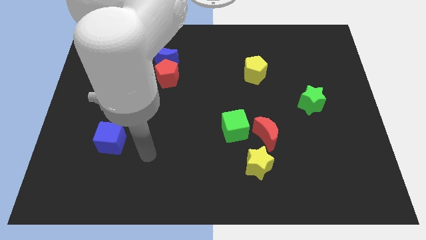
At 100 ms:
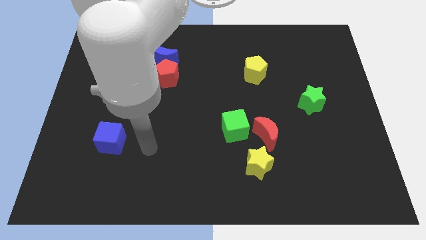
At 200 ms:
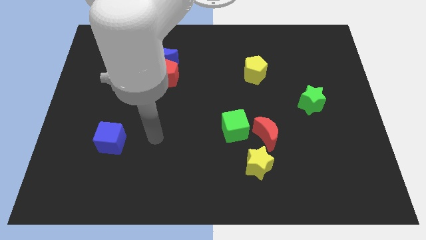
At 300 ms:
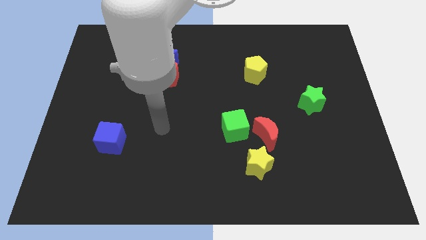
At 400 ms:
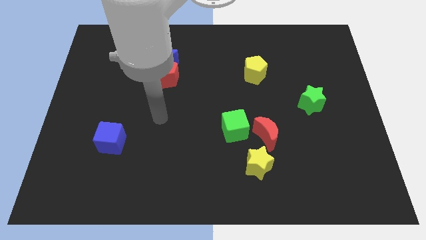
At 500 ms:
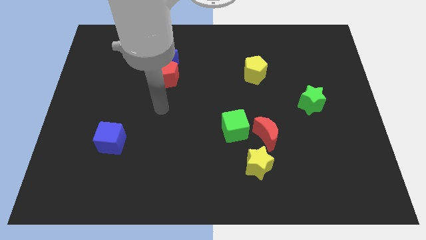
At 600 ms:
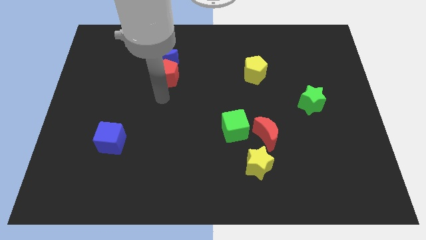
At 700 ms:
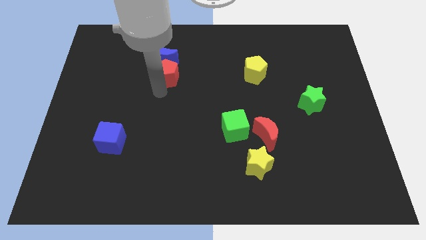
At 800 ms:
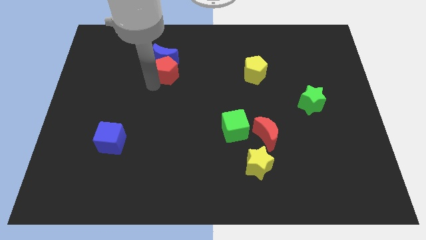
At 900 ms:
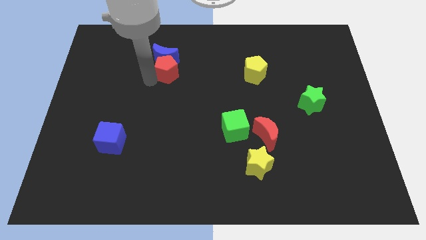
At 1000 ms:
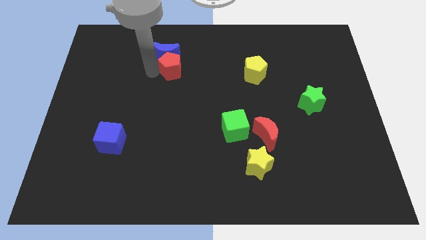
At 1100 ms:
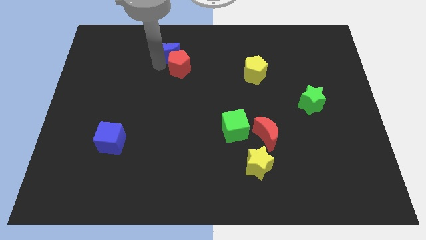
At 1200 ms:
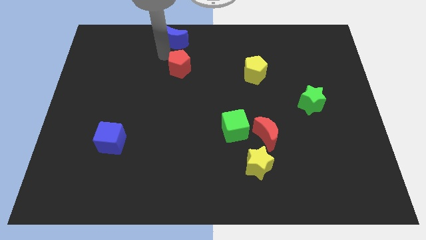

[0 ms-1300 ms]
separate the red pentagon from the blue moon

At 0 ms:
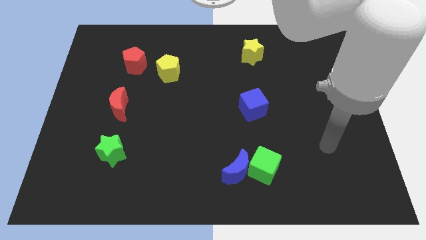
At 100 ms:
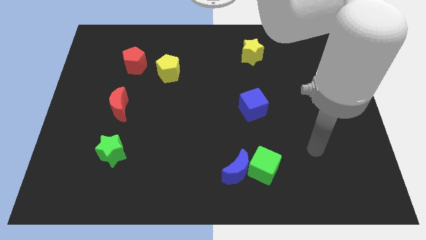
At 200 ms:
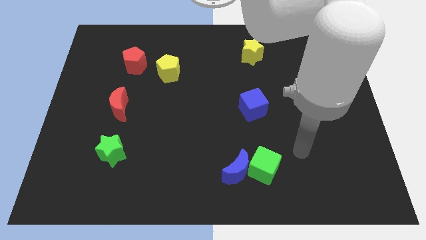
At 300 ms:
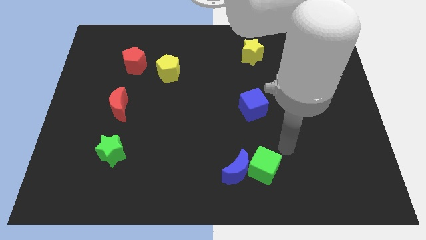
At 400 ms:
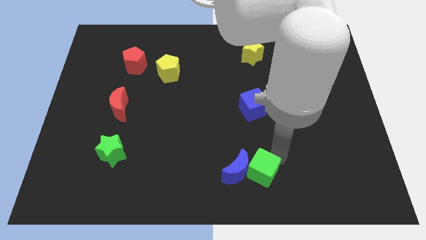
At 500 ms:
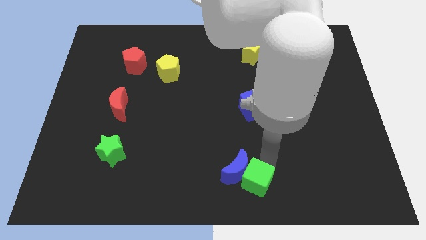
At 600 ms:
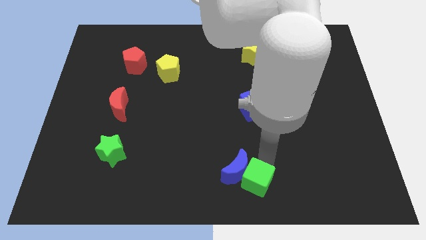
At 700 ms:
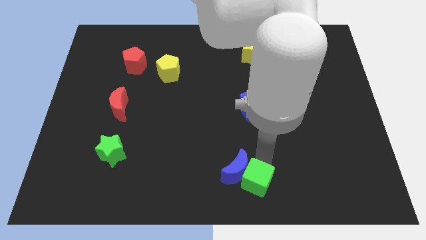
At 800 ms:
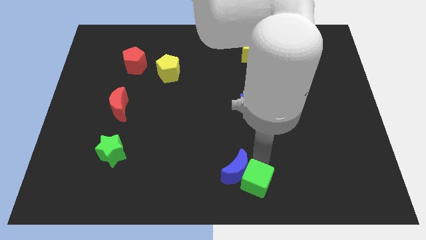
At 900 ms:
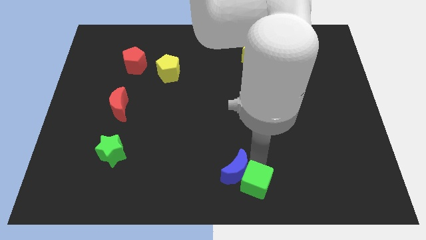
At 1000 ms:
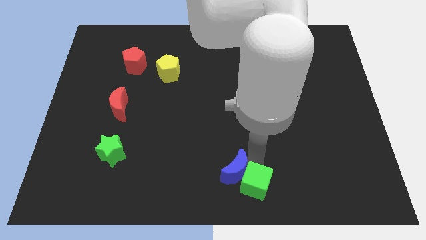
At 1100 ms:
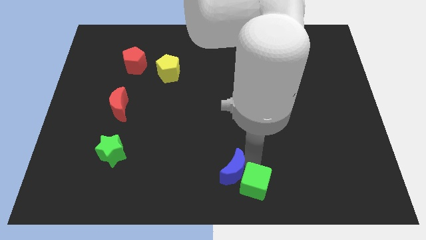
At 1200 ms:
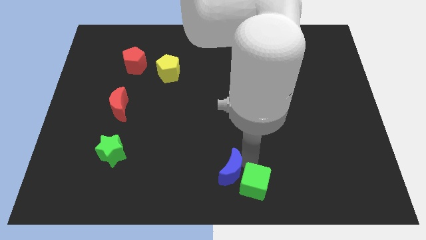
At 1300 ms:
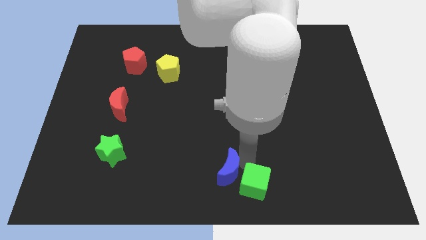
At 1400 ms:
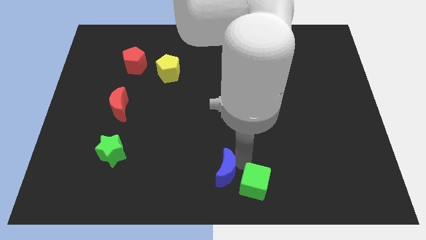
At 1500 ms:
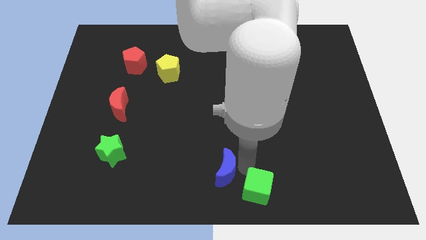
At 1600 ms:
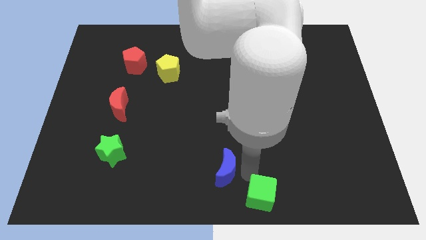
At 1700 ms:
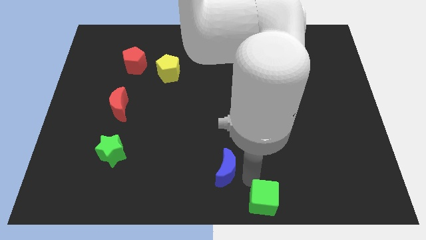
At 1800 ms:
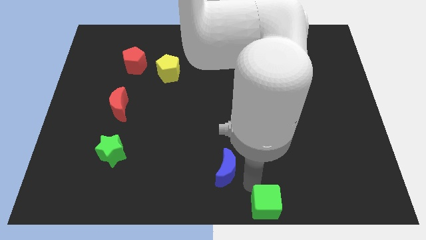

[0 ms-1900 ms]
pull the blue moon apart from the green cube

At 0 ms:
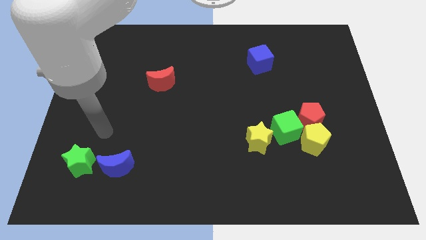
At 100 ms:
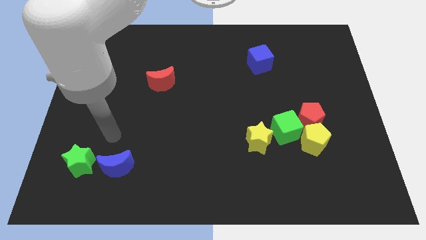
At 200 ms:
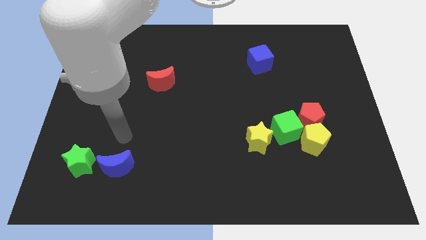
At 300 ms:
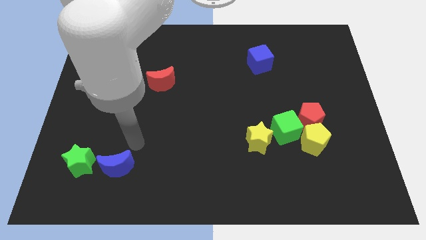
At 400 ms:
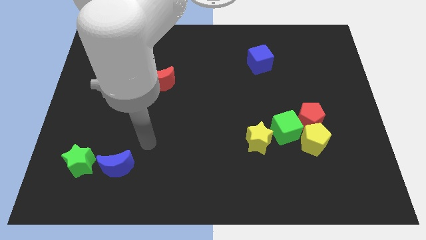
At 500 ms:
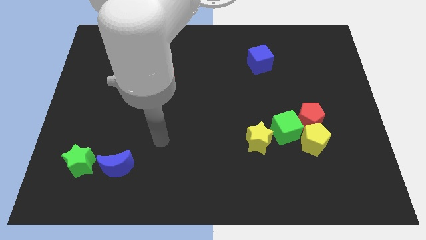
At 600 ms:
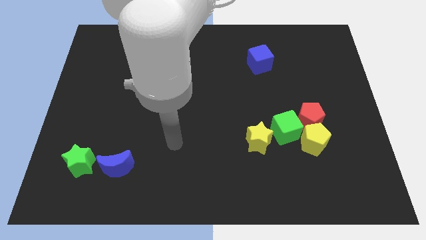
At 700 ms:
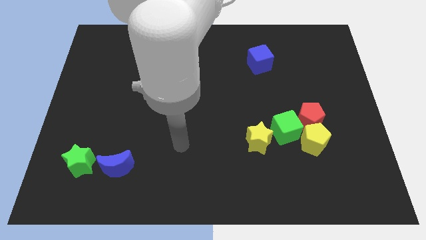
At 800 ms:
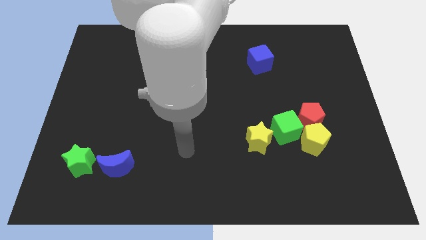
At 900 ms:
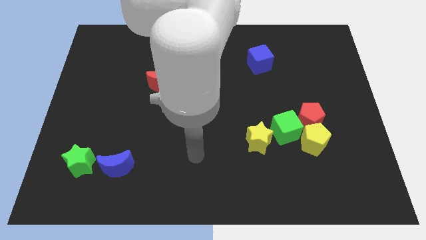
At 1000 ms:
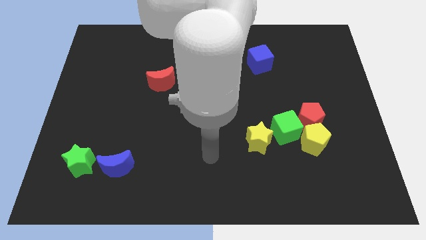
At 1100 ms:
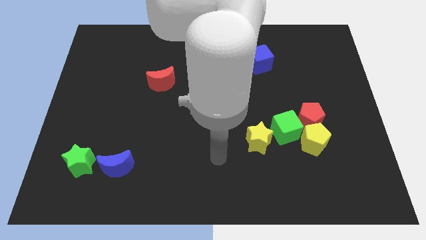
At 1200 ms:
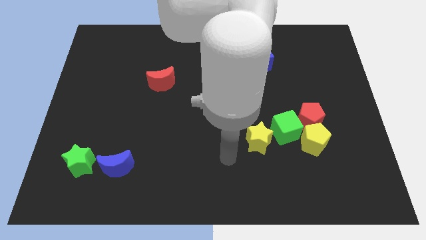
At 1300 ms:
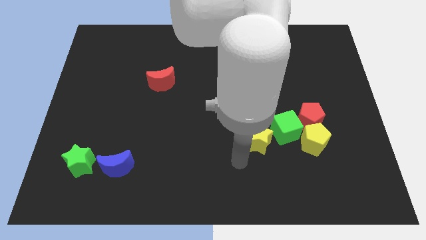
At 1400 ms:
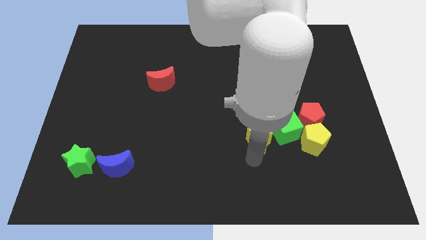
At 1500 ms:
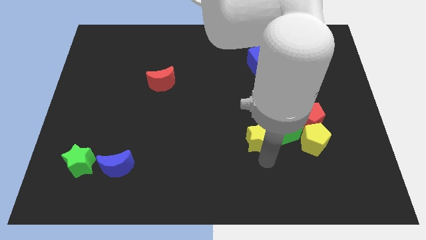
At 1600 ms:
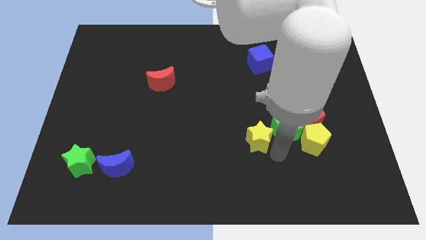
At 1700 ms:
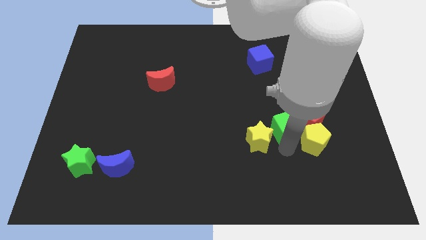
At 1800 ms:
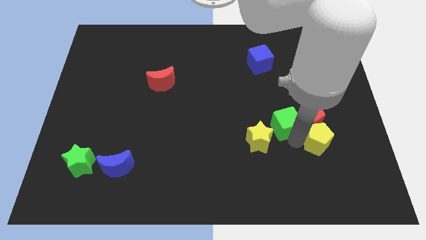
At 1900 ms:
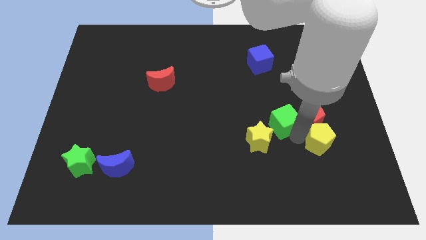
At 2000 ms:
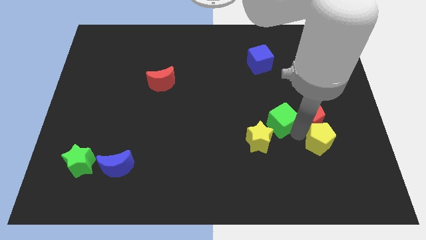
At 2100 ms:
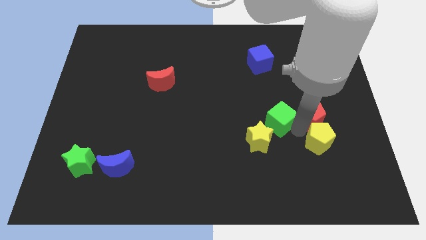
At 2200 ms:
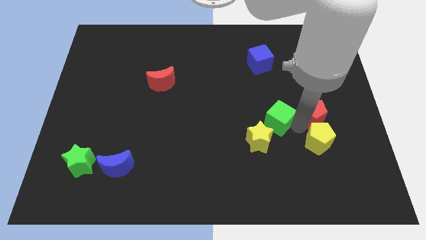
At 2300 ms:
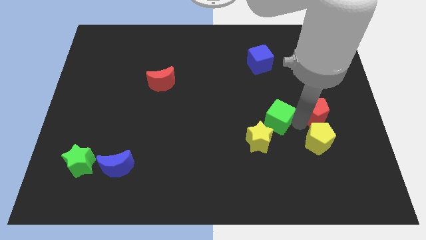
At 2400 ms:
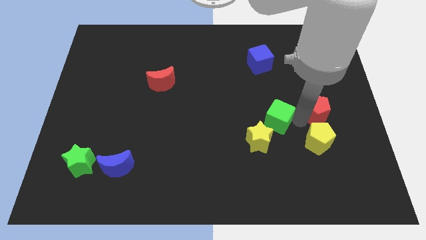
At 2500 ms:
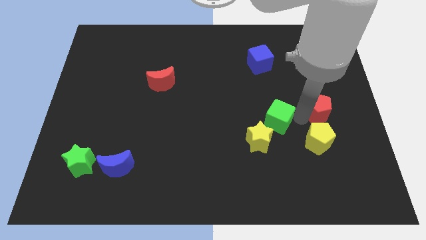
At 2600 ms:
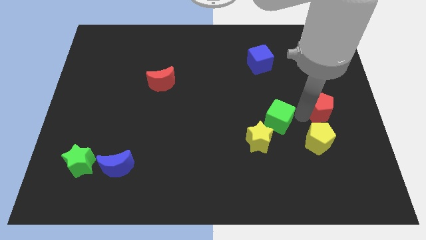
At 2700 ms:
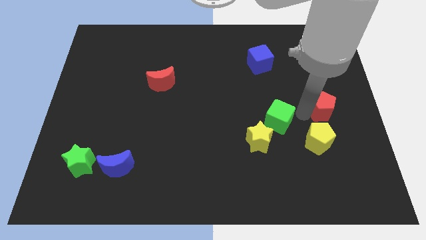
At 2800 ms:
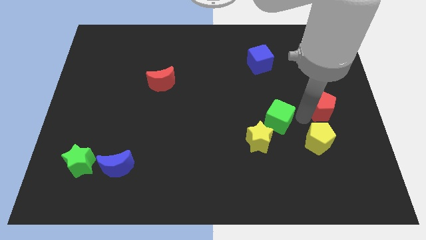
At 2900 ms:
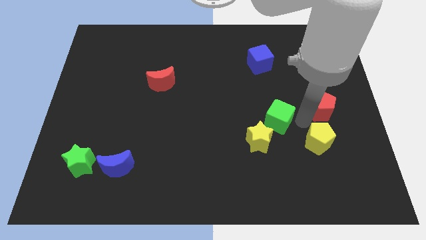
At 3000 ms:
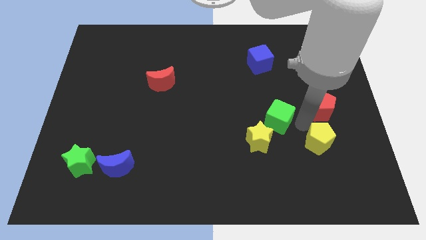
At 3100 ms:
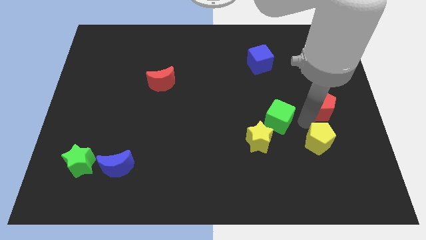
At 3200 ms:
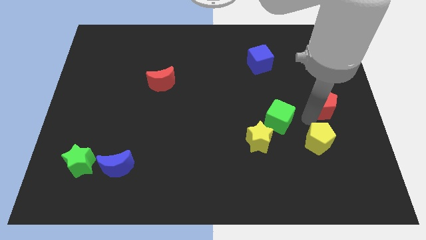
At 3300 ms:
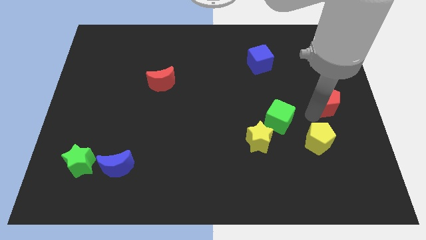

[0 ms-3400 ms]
move the red pentagon away from the yellow pentagon and green cube

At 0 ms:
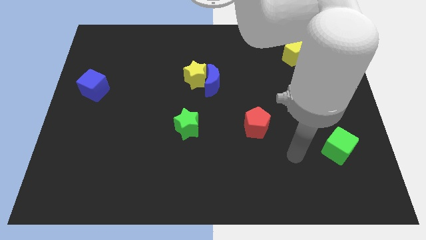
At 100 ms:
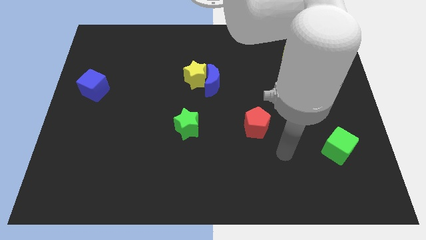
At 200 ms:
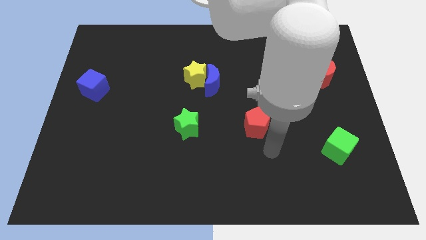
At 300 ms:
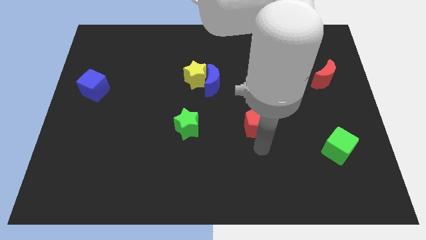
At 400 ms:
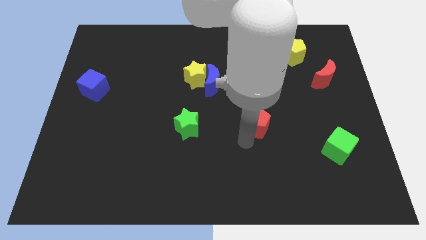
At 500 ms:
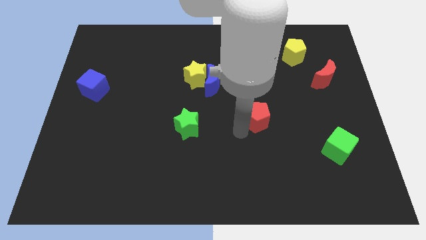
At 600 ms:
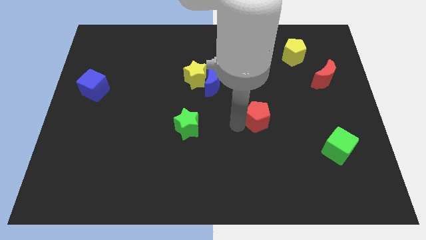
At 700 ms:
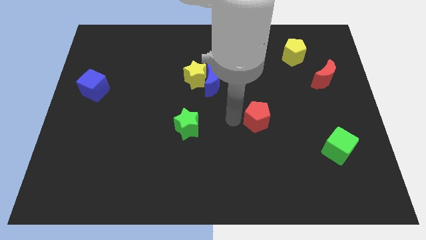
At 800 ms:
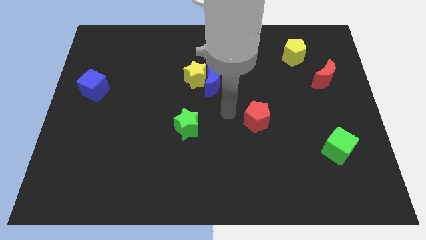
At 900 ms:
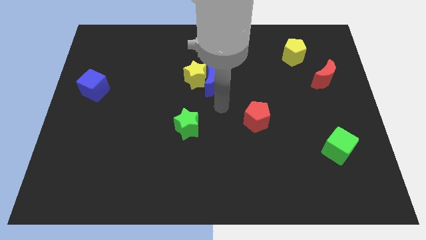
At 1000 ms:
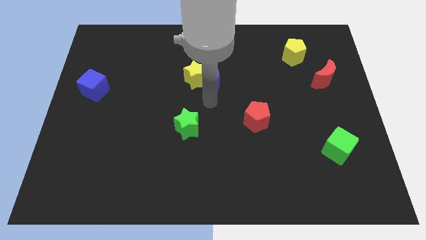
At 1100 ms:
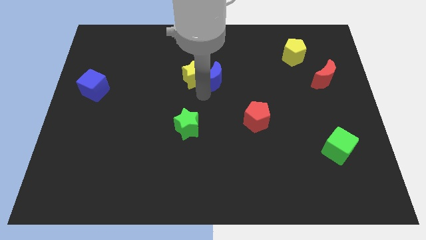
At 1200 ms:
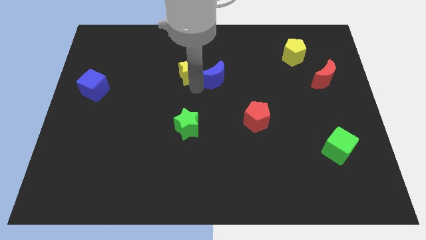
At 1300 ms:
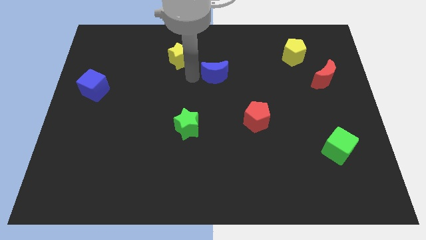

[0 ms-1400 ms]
pull the blue moon apart from the yellow star

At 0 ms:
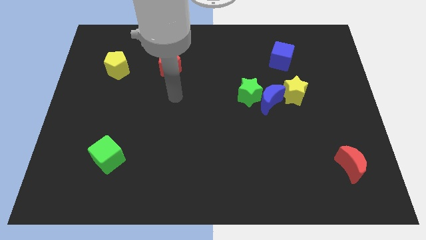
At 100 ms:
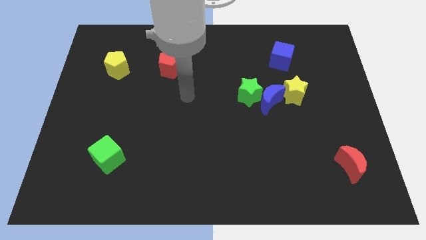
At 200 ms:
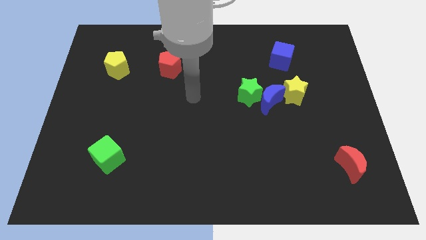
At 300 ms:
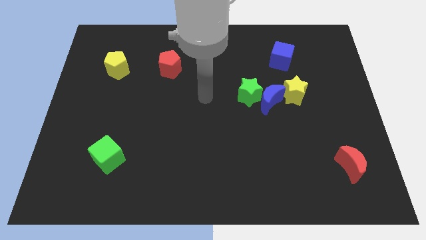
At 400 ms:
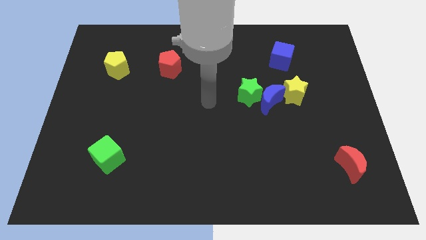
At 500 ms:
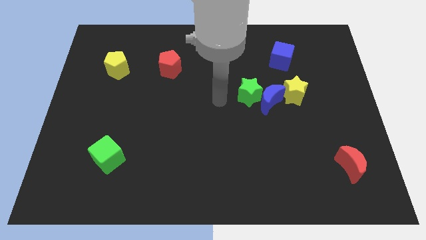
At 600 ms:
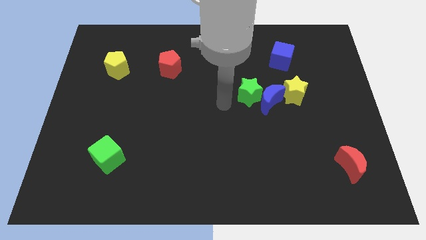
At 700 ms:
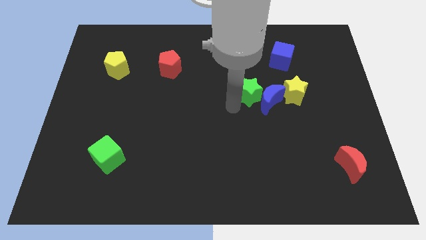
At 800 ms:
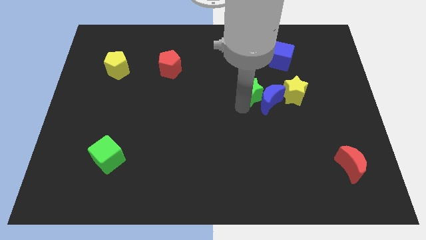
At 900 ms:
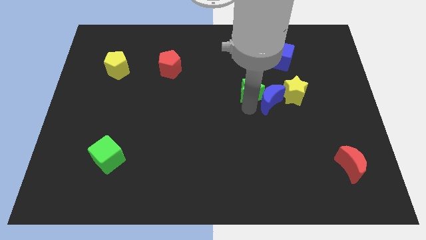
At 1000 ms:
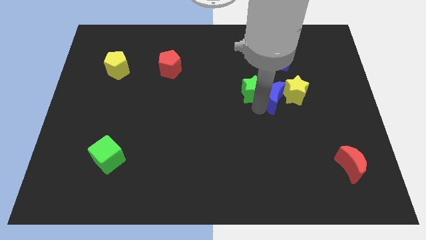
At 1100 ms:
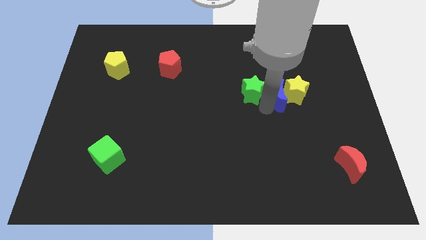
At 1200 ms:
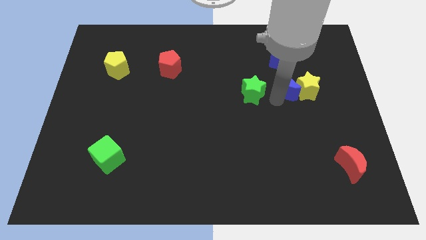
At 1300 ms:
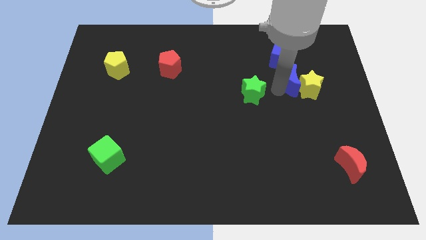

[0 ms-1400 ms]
separate the green star from the blue moon

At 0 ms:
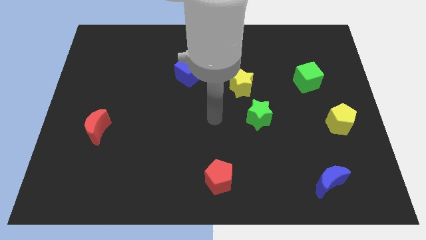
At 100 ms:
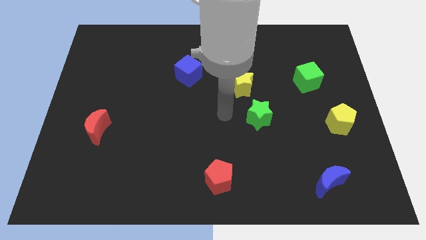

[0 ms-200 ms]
separate the green star from the yellow star
